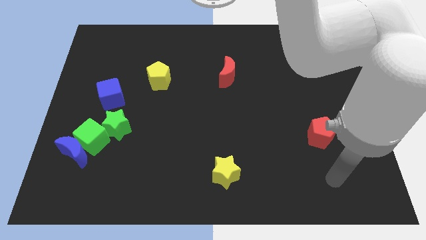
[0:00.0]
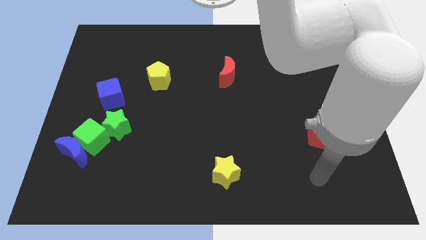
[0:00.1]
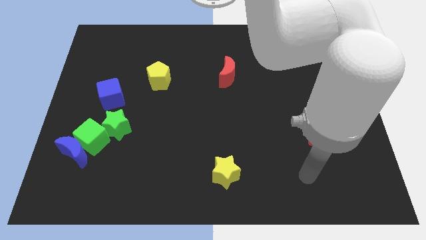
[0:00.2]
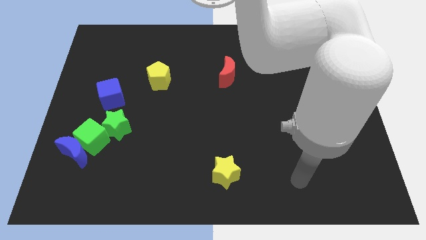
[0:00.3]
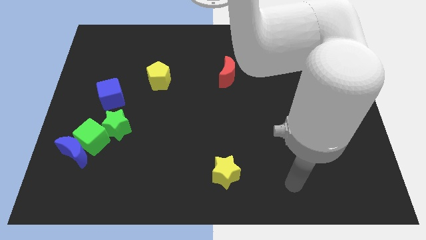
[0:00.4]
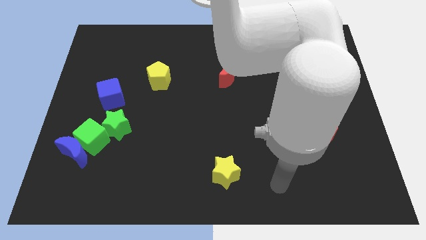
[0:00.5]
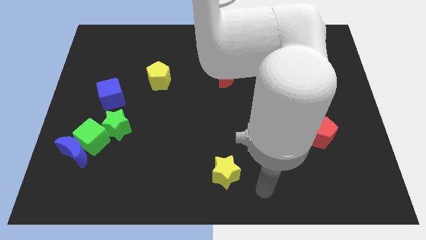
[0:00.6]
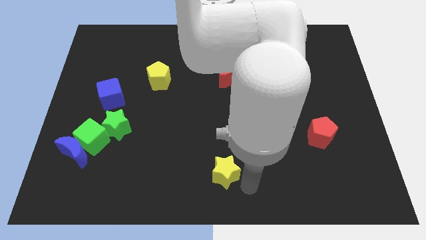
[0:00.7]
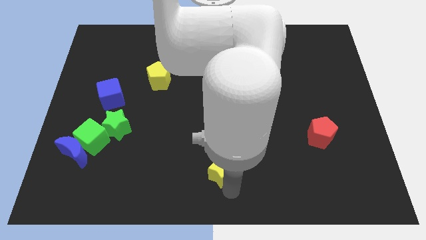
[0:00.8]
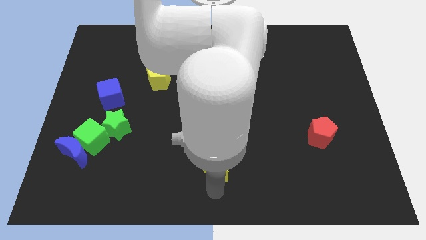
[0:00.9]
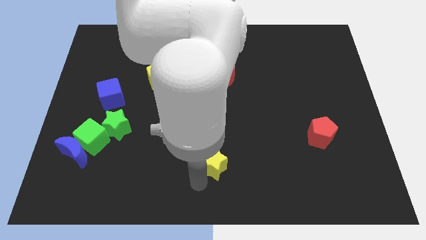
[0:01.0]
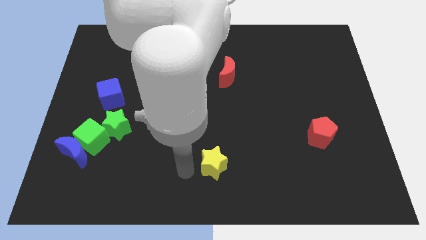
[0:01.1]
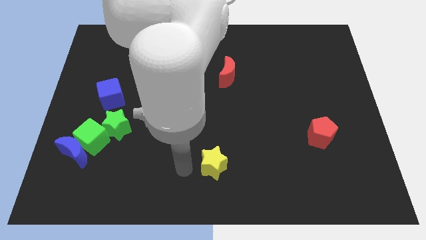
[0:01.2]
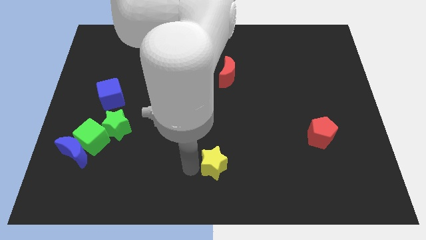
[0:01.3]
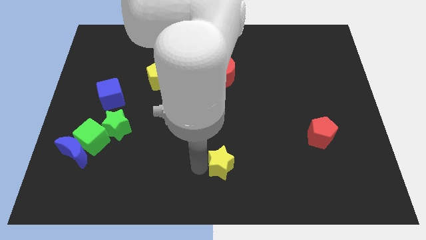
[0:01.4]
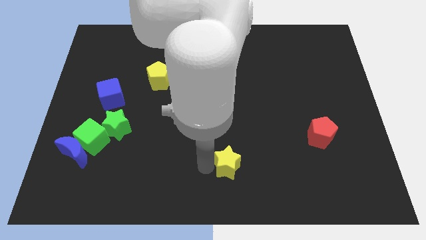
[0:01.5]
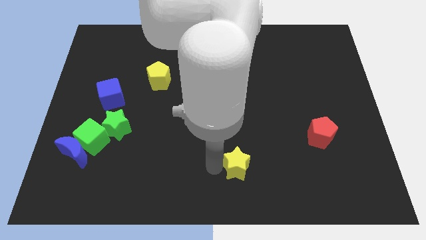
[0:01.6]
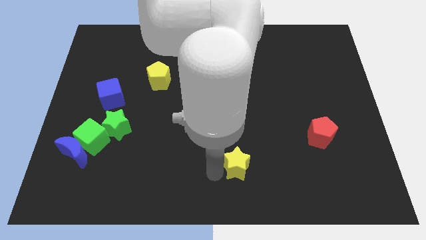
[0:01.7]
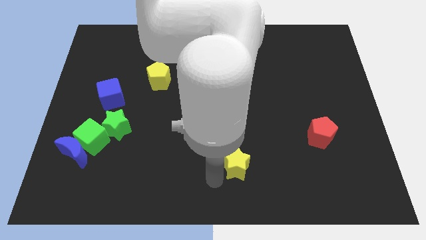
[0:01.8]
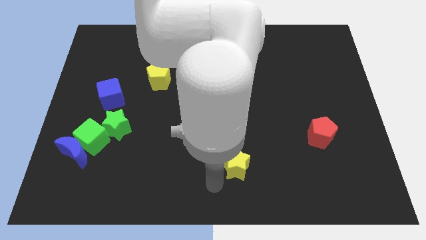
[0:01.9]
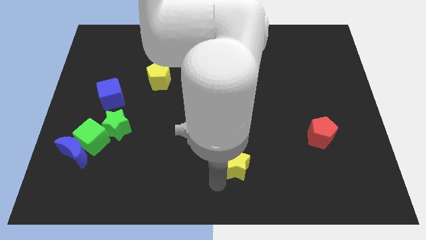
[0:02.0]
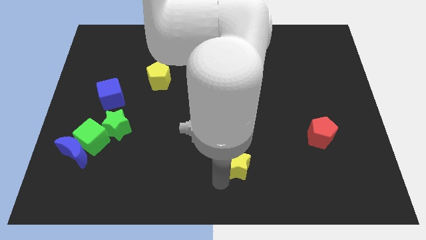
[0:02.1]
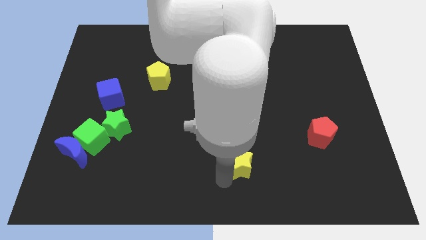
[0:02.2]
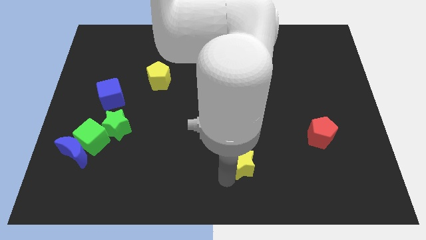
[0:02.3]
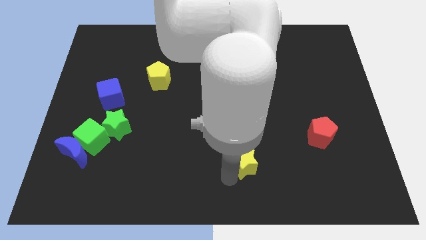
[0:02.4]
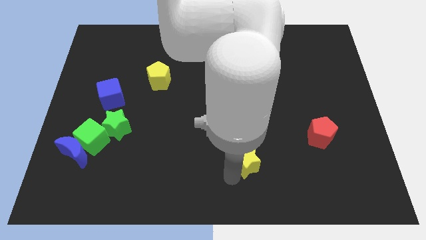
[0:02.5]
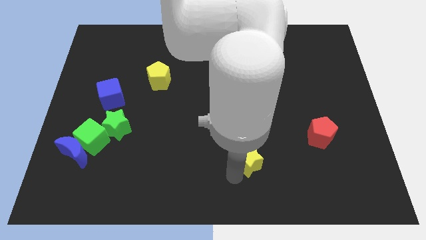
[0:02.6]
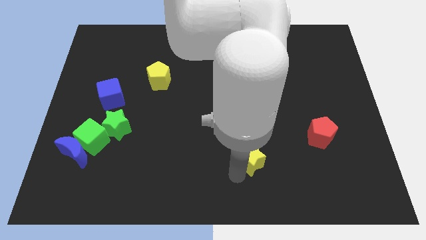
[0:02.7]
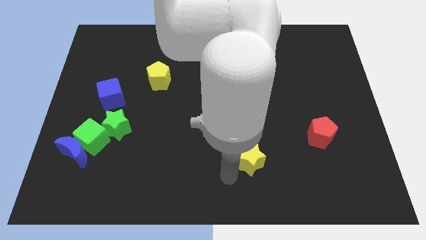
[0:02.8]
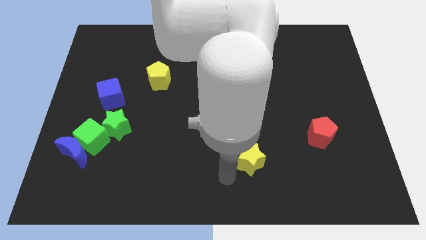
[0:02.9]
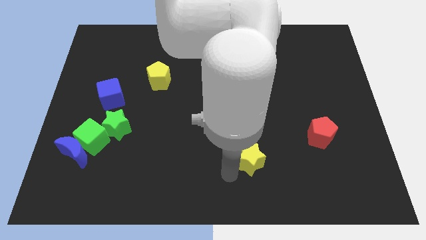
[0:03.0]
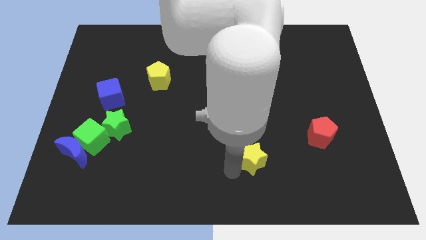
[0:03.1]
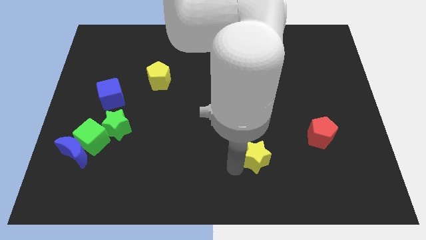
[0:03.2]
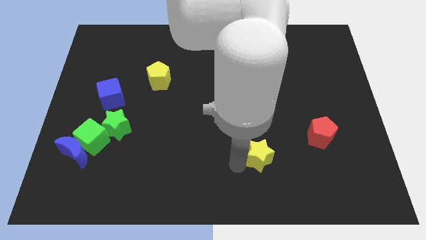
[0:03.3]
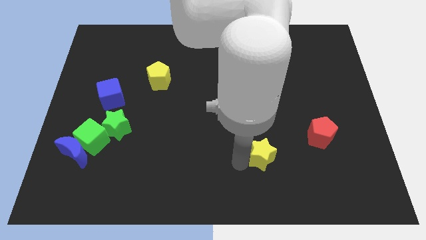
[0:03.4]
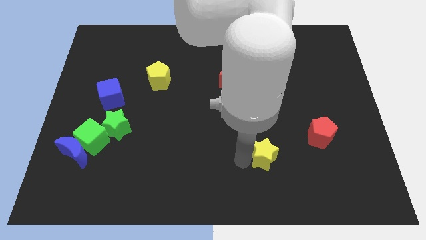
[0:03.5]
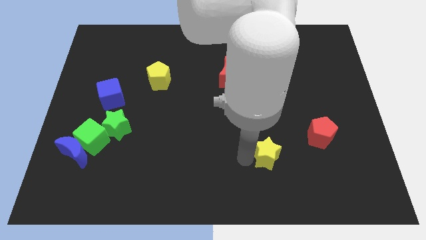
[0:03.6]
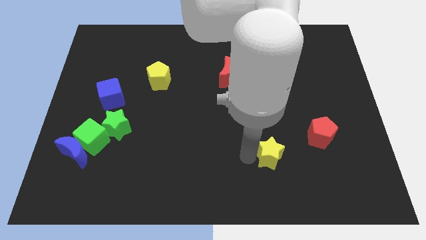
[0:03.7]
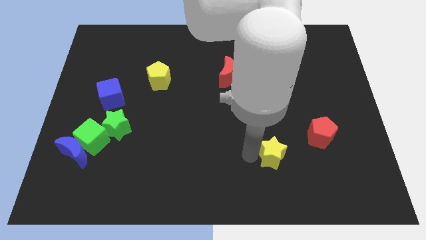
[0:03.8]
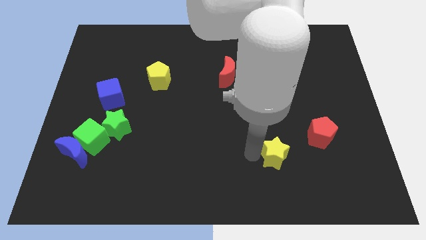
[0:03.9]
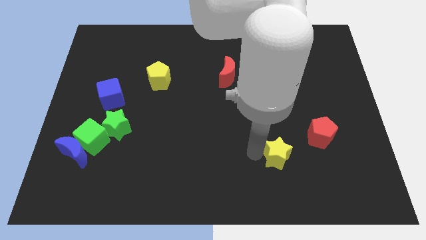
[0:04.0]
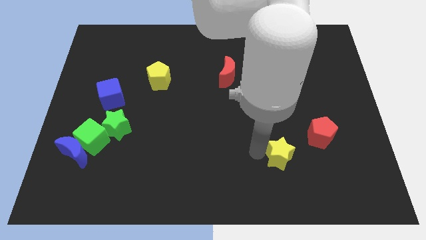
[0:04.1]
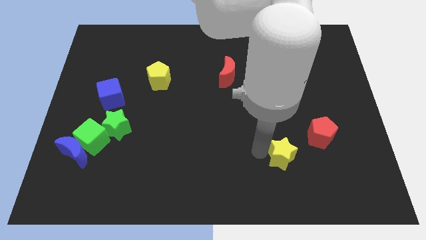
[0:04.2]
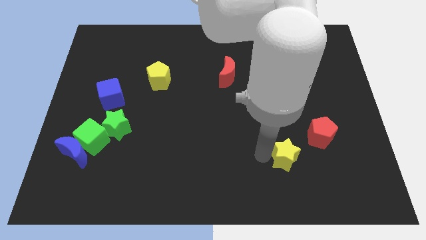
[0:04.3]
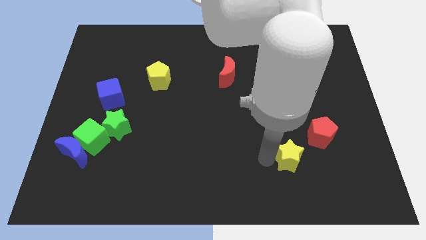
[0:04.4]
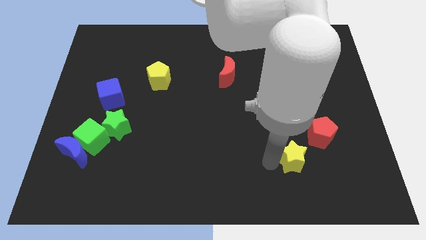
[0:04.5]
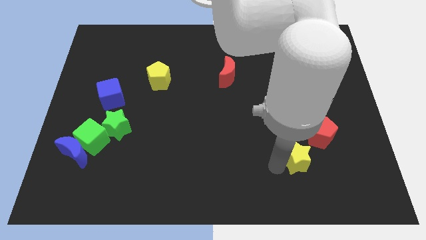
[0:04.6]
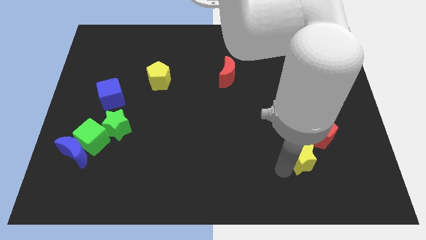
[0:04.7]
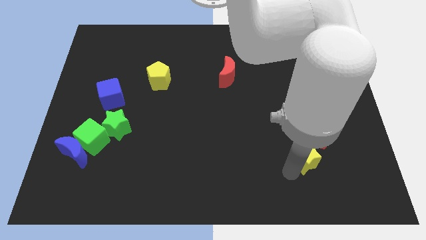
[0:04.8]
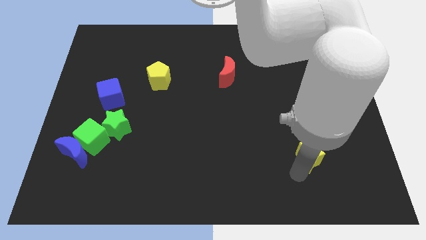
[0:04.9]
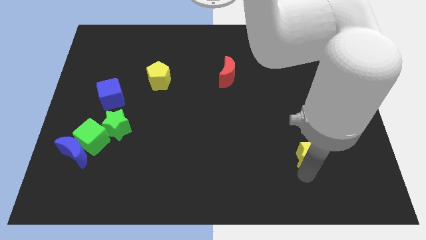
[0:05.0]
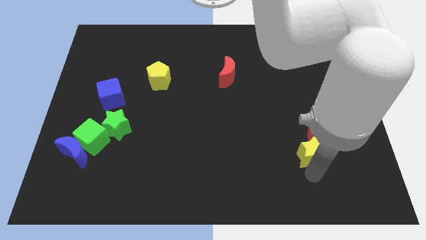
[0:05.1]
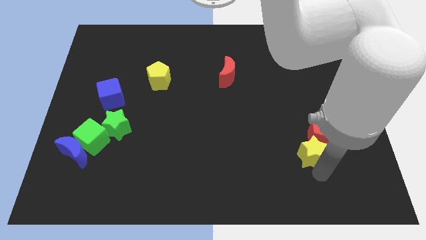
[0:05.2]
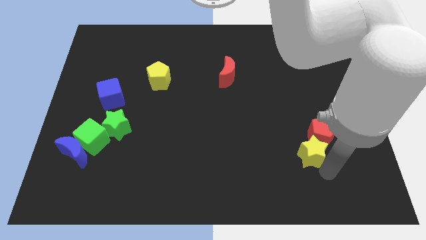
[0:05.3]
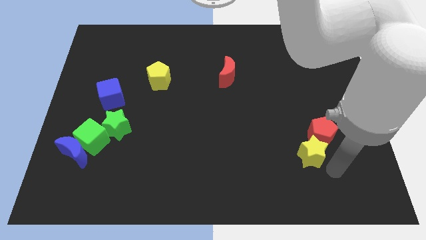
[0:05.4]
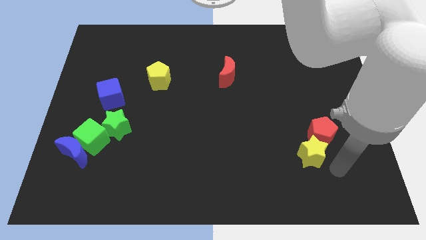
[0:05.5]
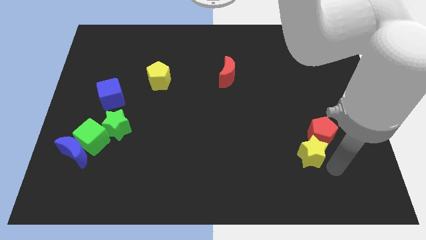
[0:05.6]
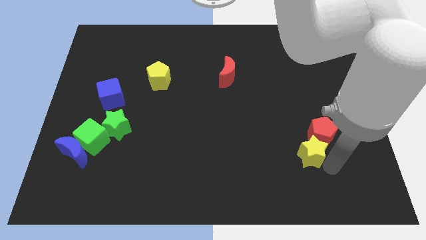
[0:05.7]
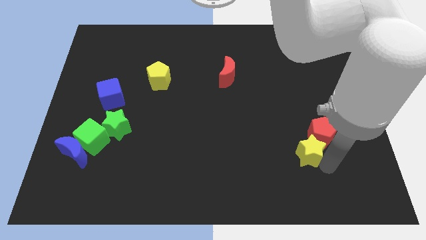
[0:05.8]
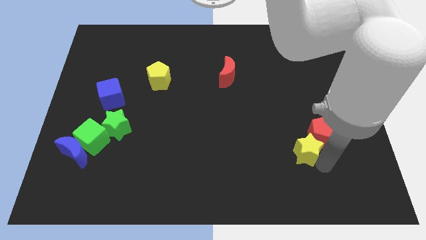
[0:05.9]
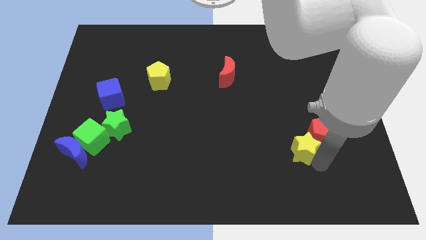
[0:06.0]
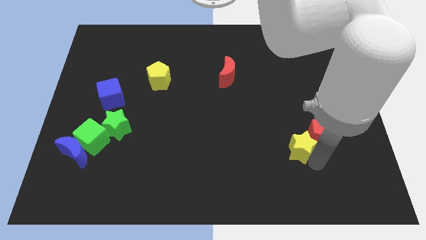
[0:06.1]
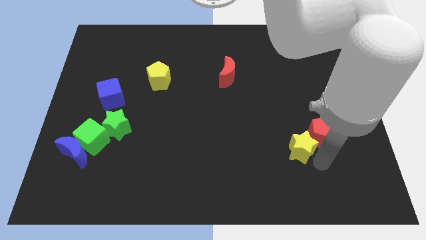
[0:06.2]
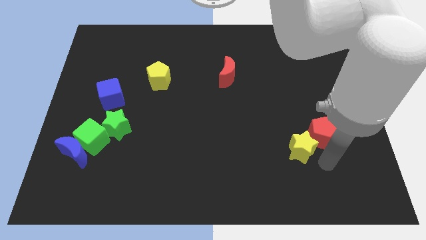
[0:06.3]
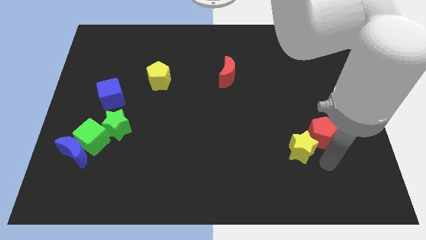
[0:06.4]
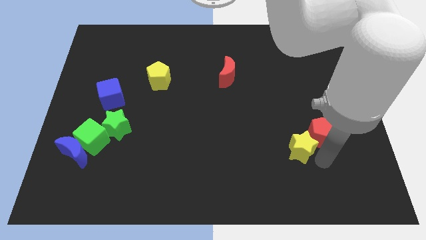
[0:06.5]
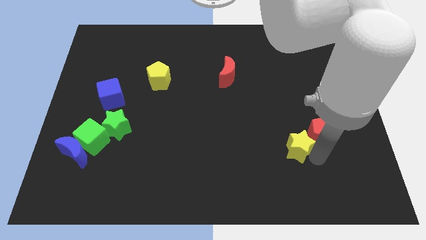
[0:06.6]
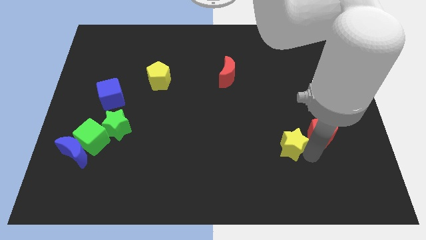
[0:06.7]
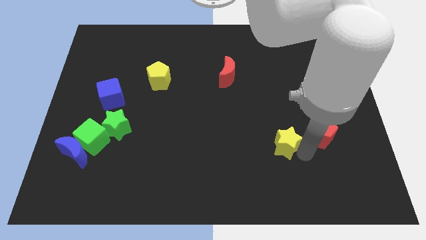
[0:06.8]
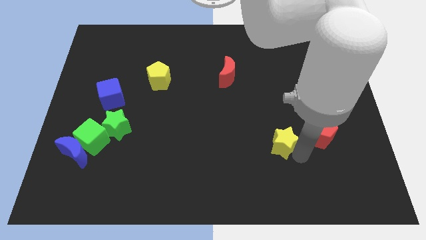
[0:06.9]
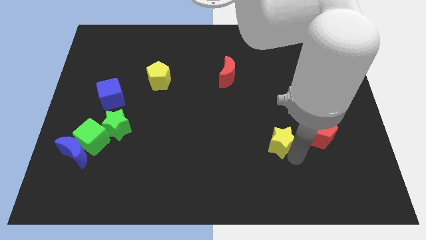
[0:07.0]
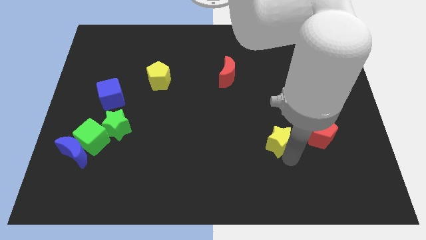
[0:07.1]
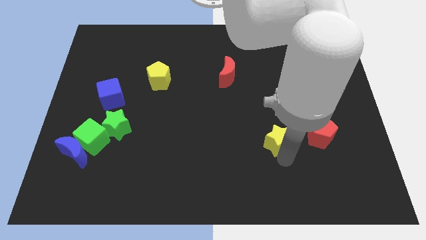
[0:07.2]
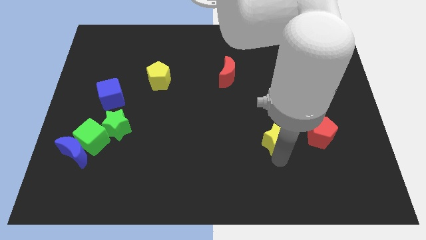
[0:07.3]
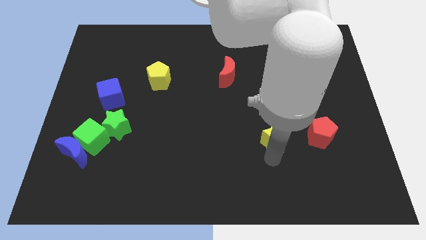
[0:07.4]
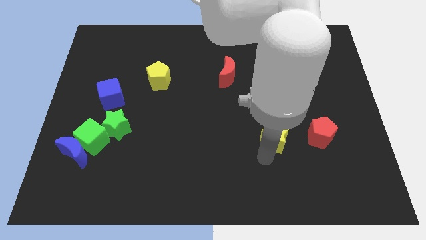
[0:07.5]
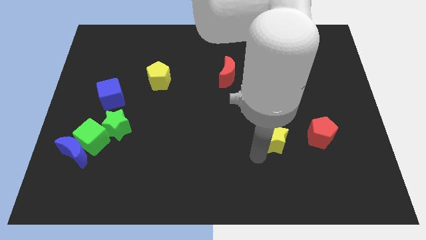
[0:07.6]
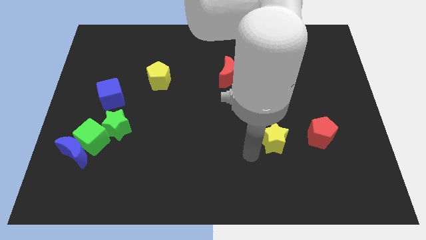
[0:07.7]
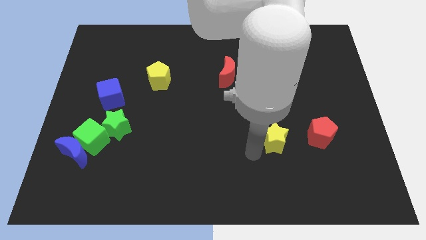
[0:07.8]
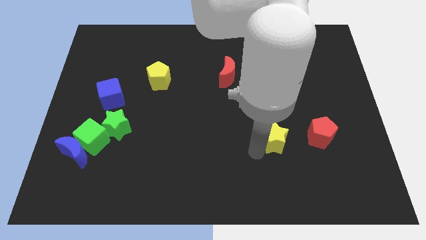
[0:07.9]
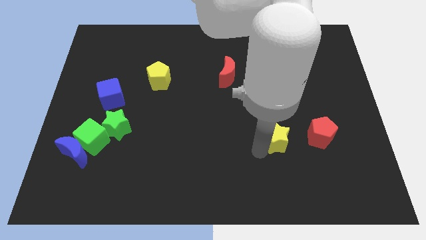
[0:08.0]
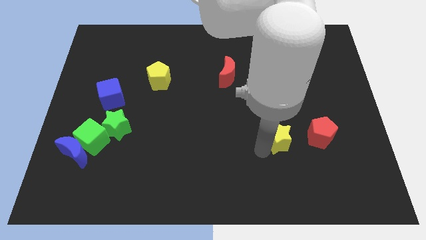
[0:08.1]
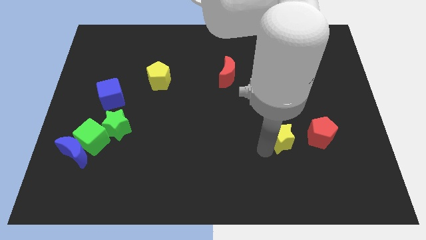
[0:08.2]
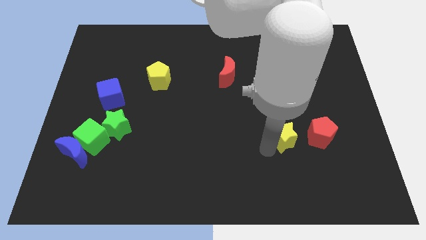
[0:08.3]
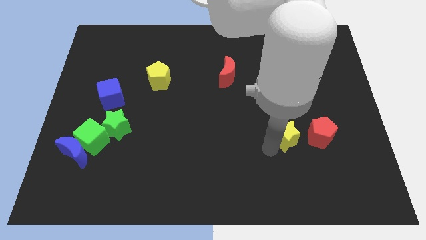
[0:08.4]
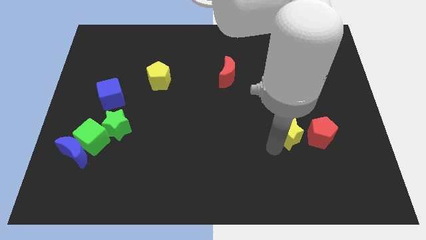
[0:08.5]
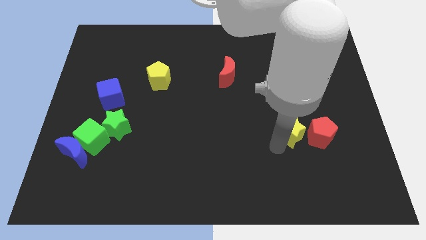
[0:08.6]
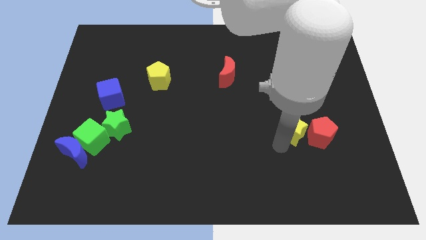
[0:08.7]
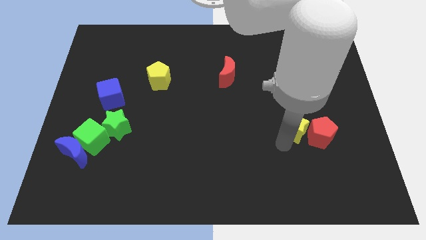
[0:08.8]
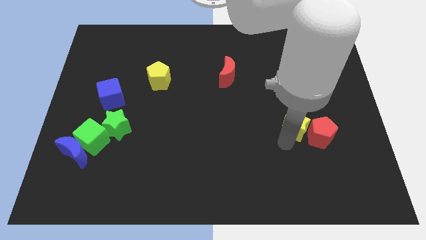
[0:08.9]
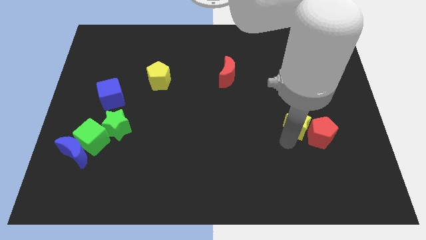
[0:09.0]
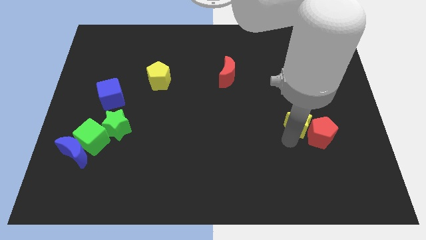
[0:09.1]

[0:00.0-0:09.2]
push the yellow star upwards and to the right diagonally
